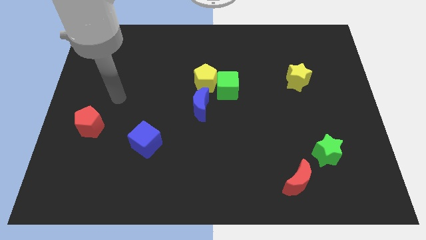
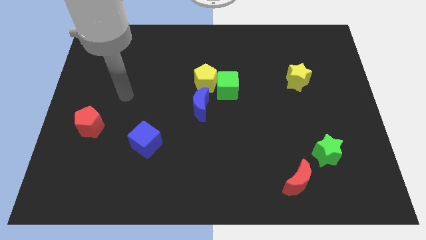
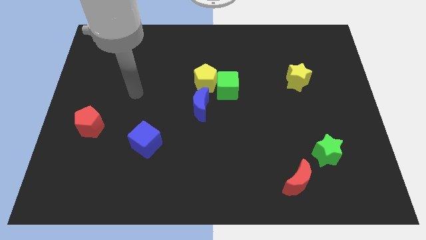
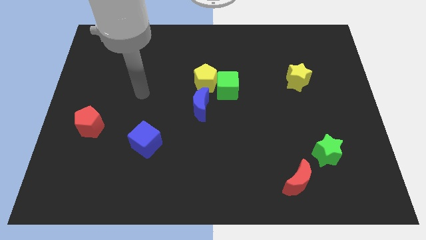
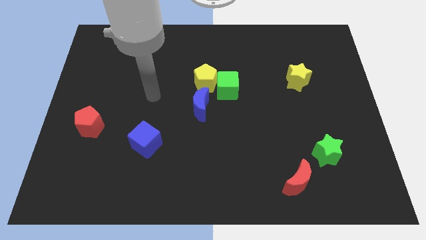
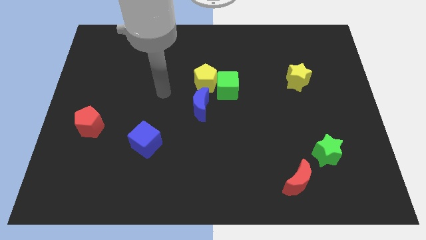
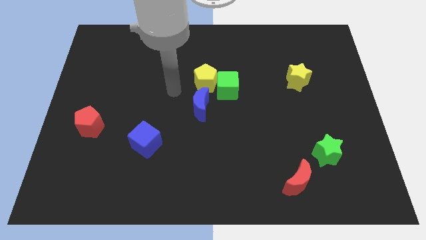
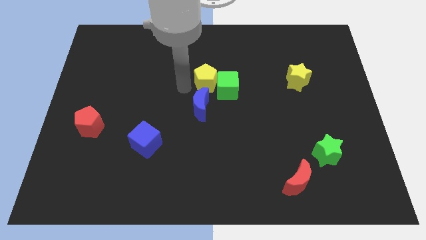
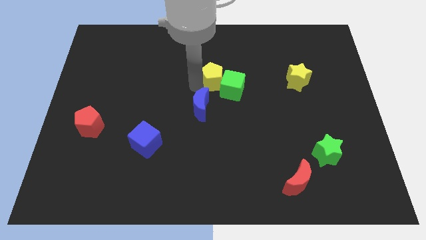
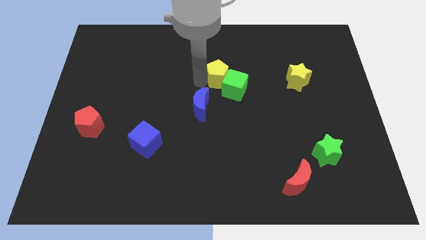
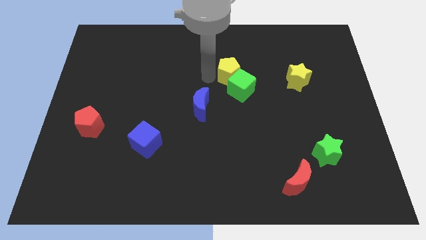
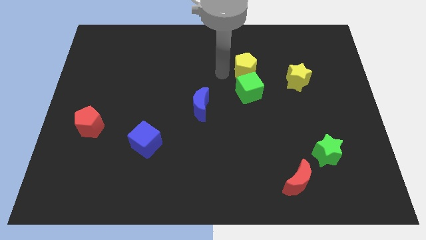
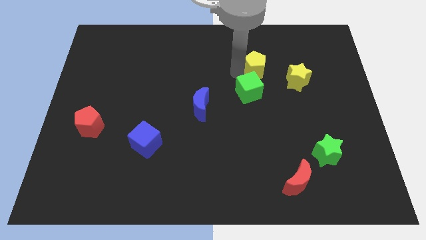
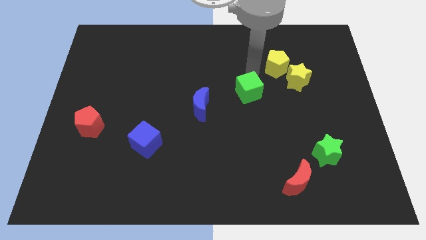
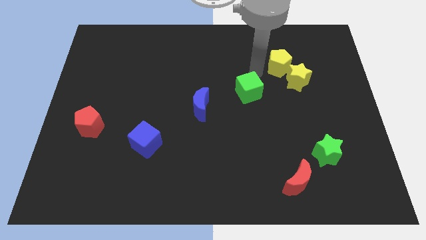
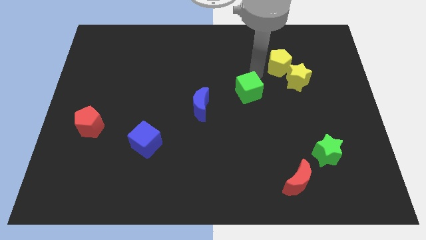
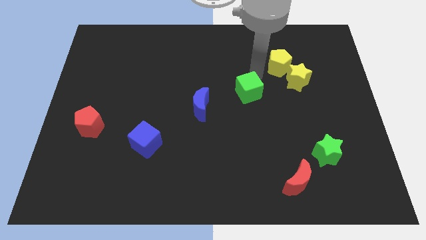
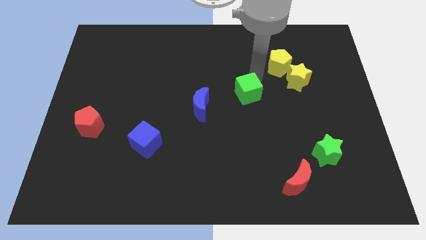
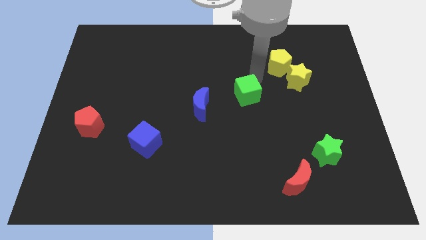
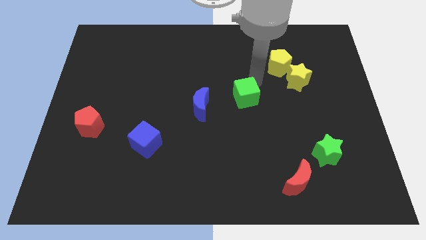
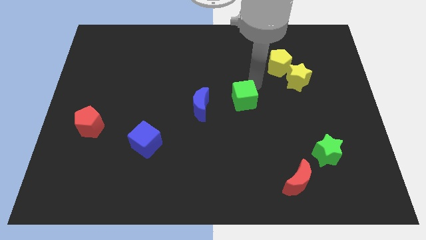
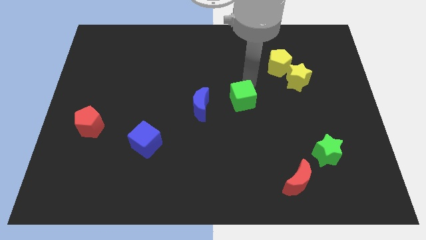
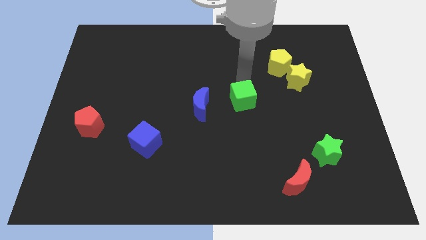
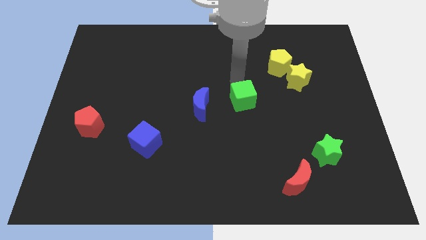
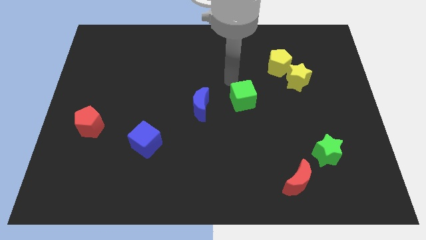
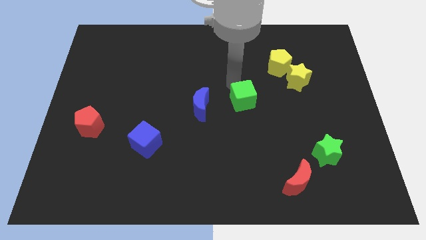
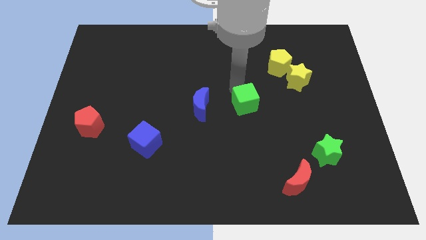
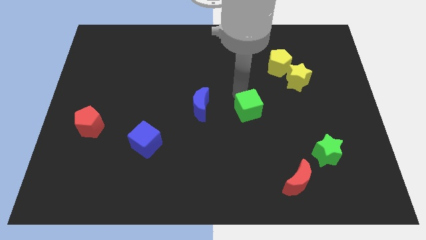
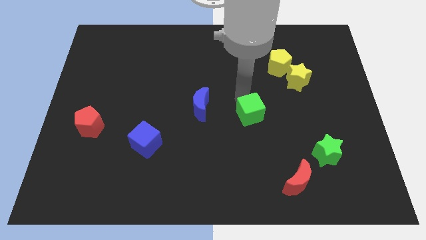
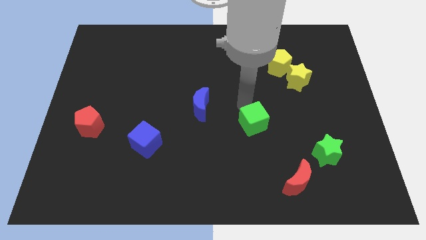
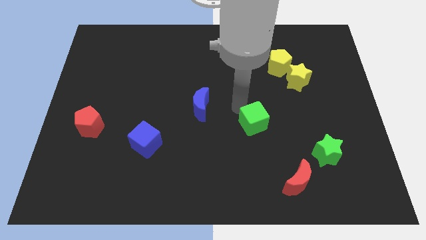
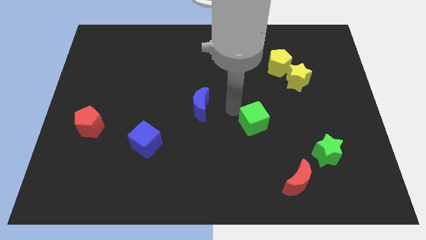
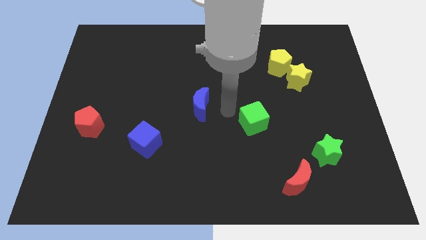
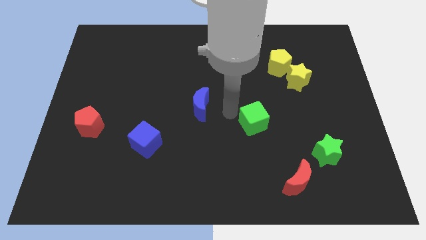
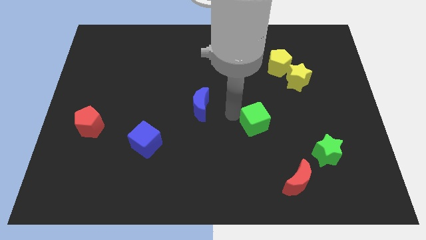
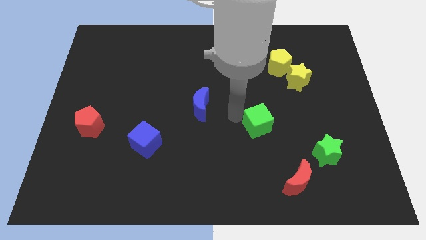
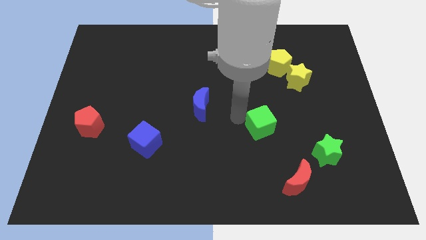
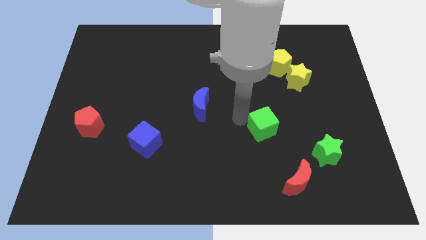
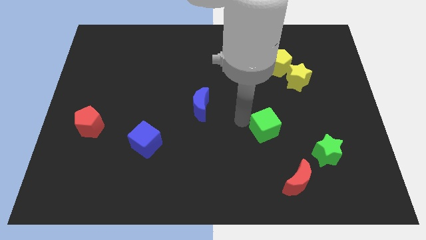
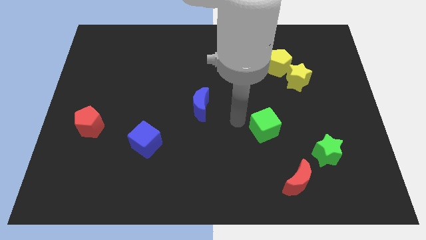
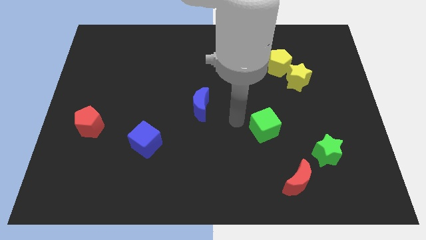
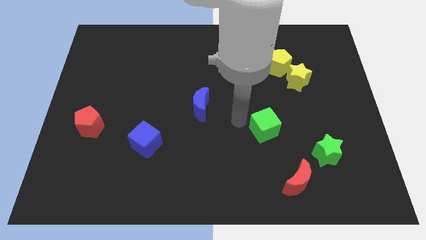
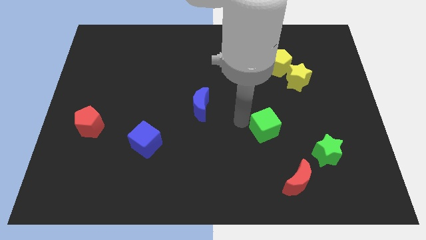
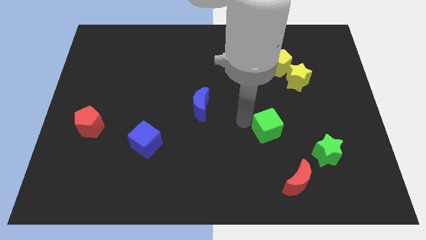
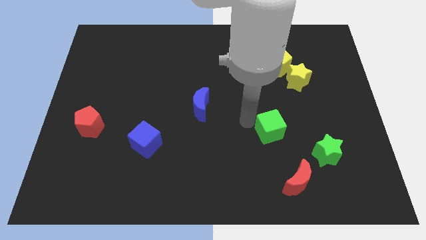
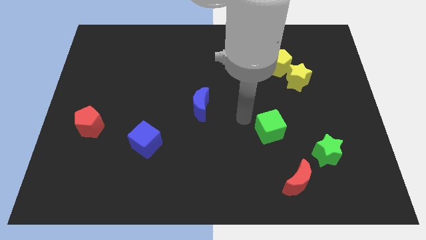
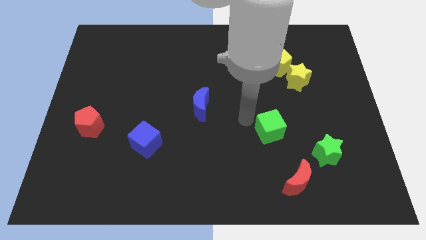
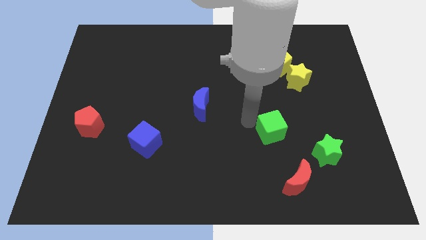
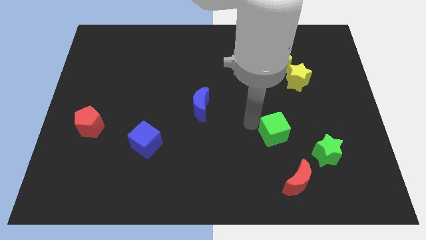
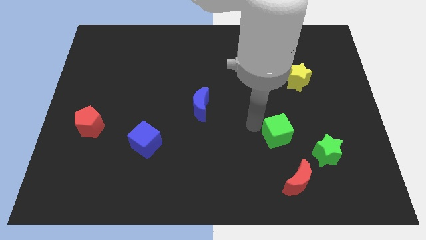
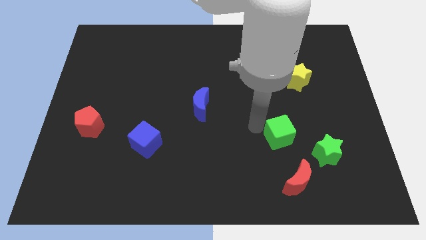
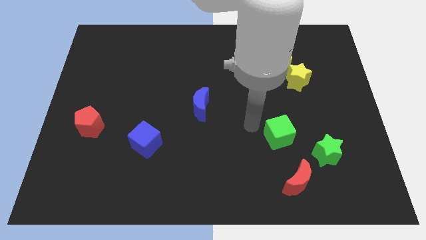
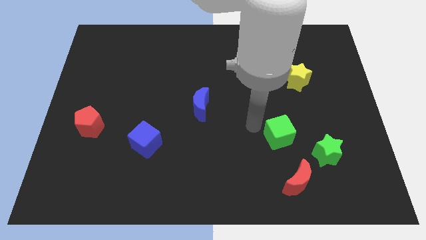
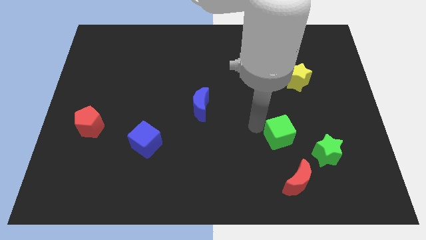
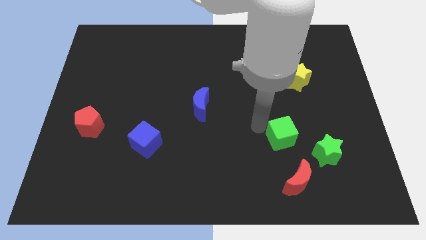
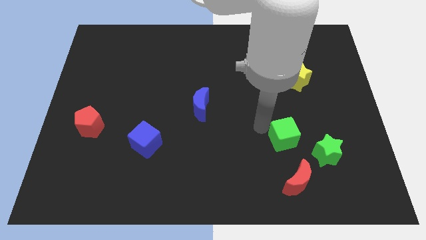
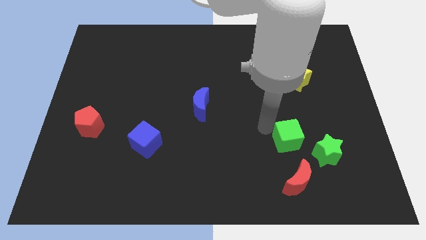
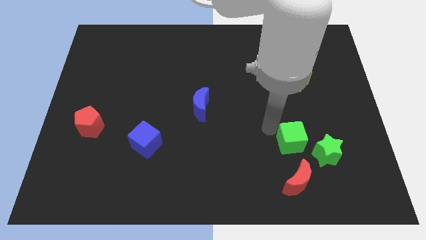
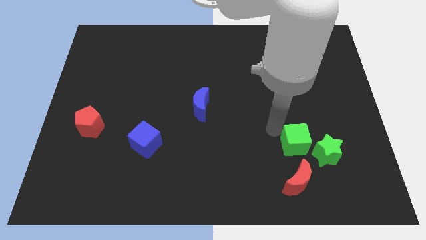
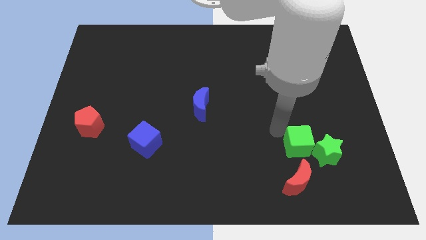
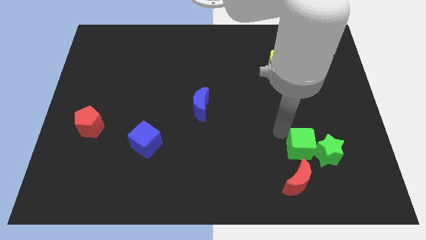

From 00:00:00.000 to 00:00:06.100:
move the green cube to the green star
